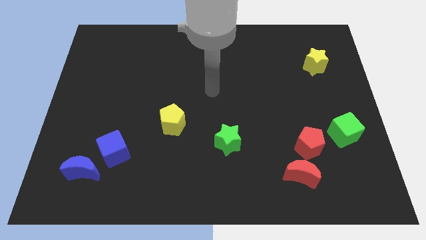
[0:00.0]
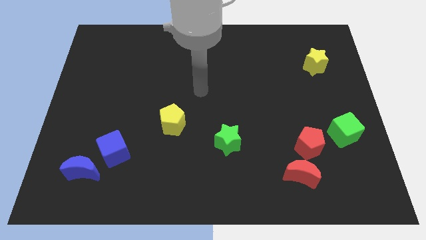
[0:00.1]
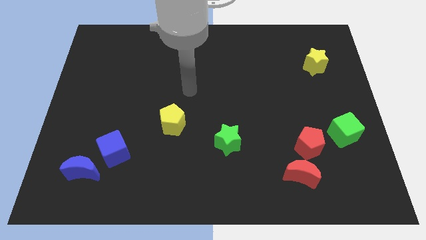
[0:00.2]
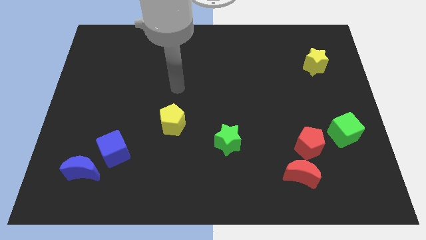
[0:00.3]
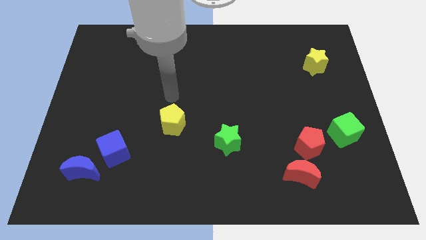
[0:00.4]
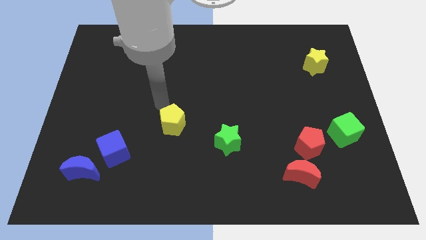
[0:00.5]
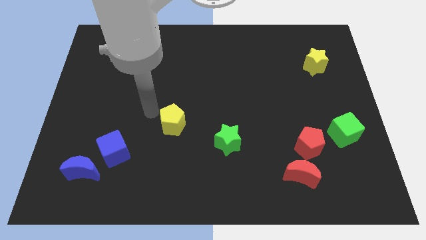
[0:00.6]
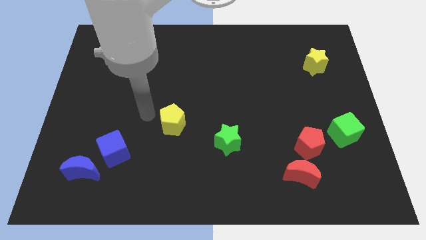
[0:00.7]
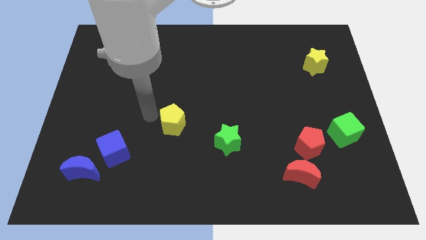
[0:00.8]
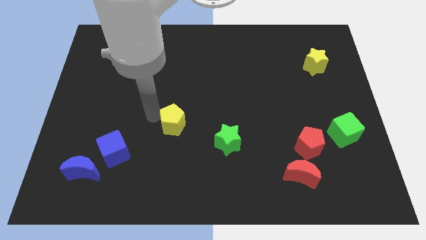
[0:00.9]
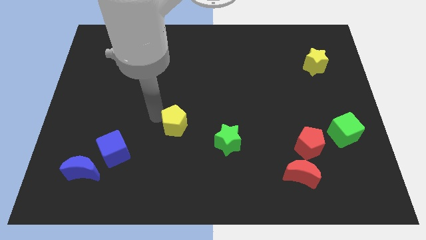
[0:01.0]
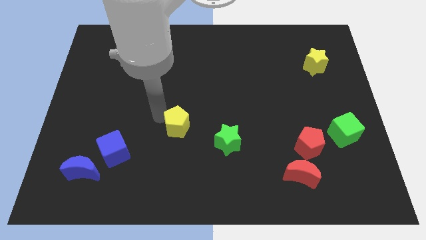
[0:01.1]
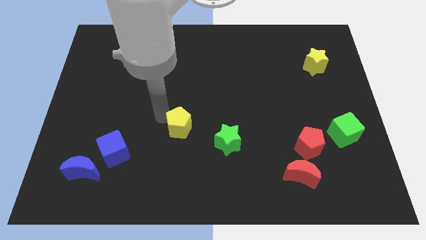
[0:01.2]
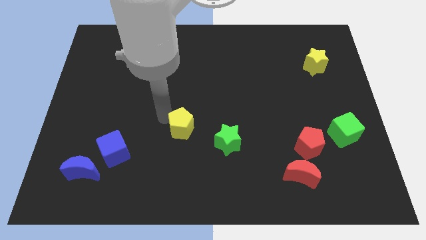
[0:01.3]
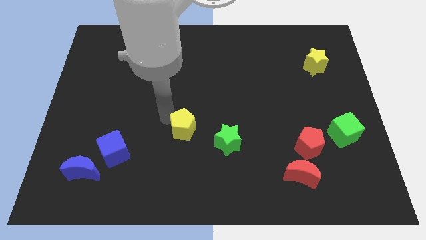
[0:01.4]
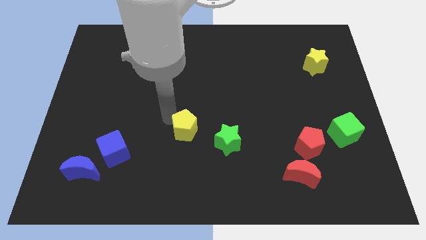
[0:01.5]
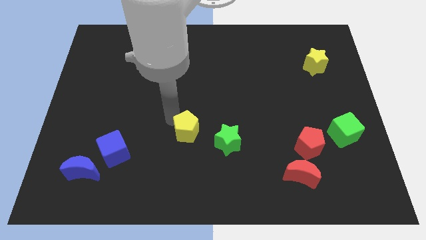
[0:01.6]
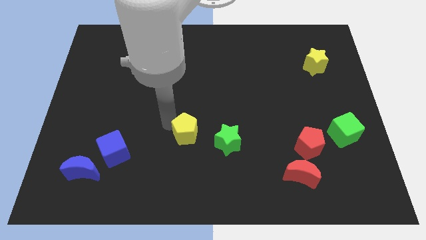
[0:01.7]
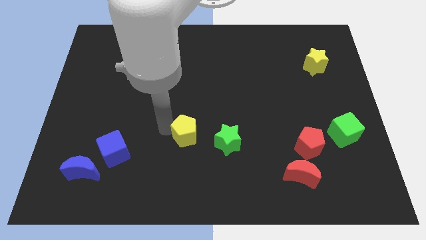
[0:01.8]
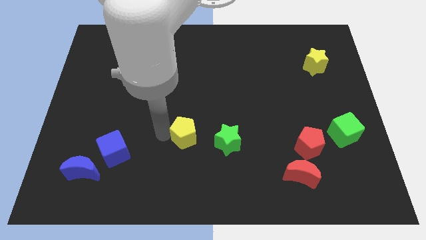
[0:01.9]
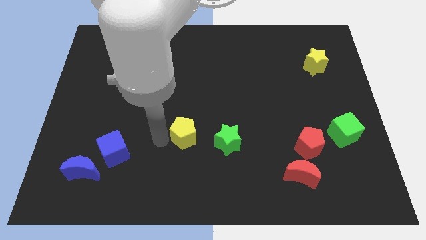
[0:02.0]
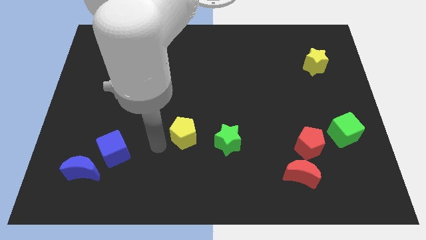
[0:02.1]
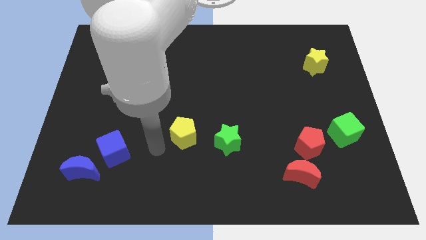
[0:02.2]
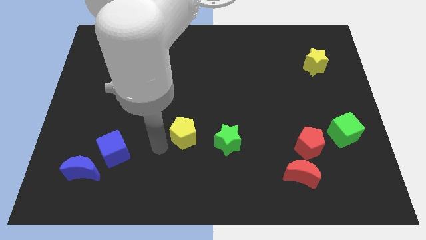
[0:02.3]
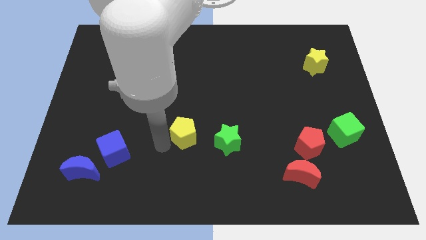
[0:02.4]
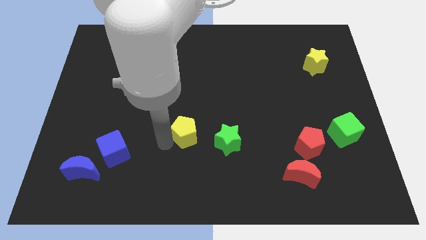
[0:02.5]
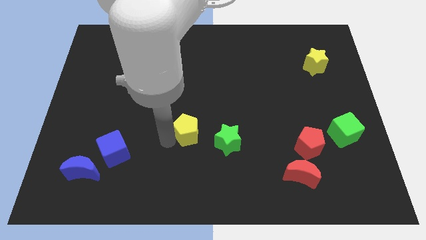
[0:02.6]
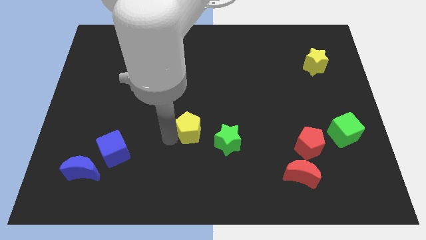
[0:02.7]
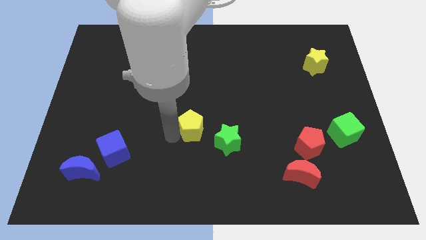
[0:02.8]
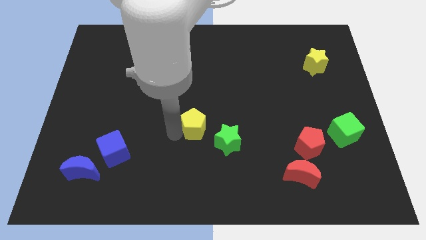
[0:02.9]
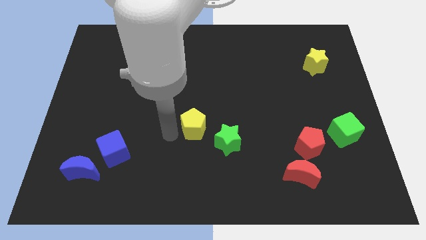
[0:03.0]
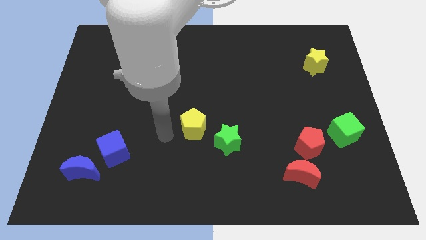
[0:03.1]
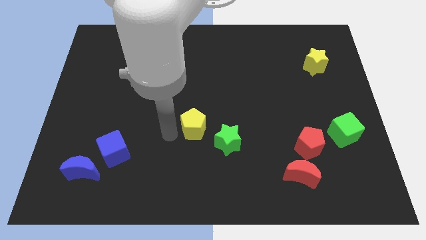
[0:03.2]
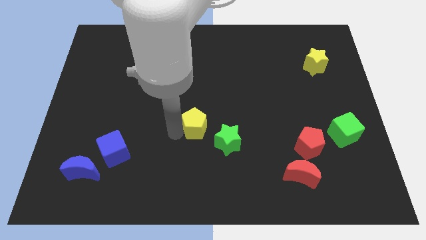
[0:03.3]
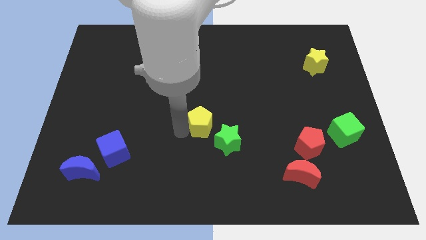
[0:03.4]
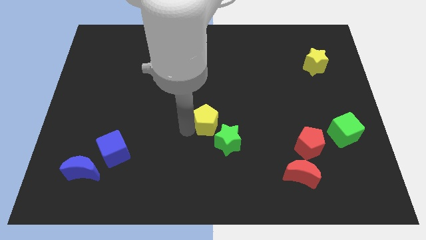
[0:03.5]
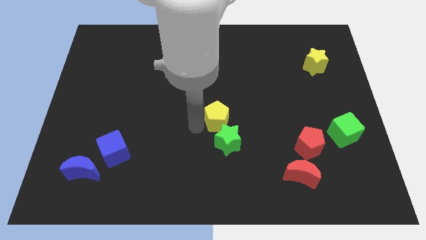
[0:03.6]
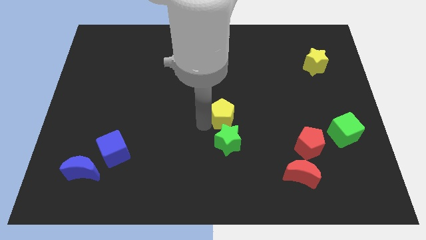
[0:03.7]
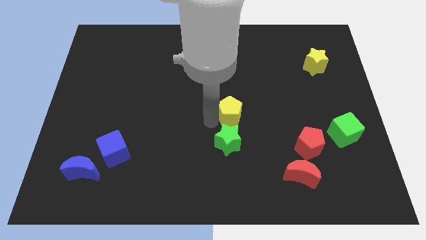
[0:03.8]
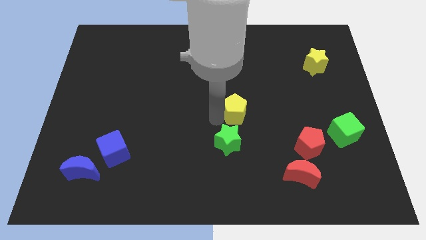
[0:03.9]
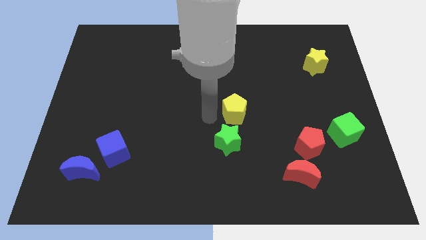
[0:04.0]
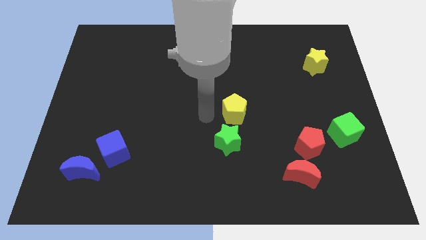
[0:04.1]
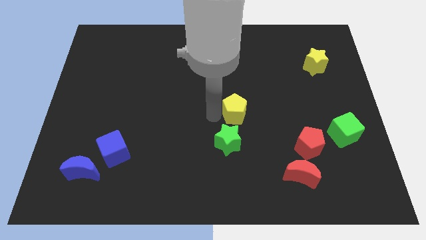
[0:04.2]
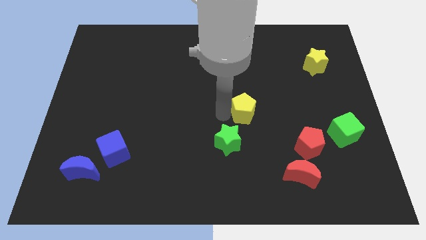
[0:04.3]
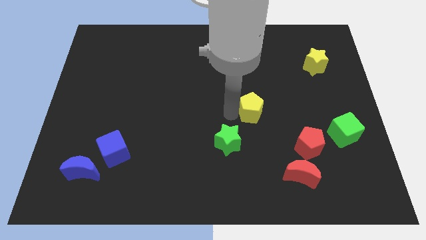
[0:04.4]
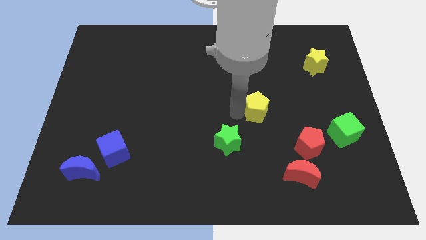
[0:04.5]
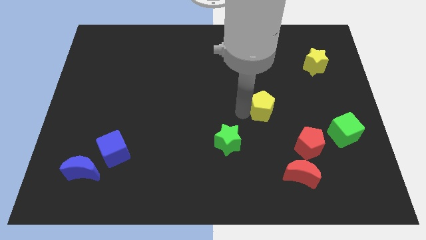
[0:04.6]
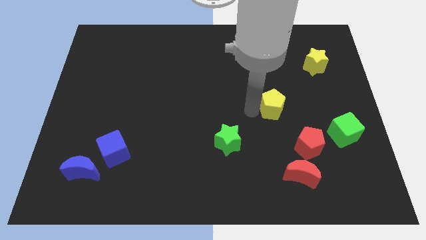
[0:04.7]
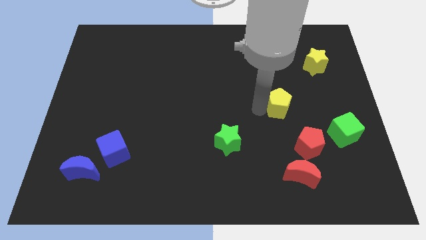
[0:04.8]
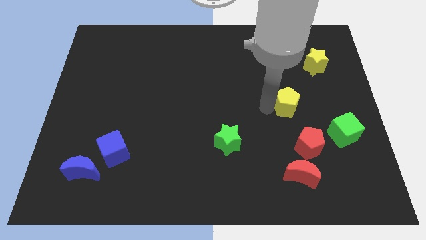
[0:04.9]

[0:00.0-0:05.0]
slide the yellow pentagon to the top side of the red pentagon

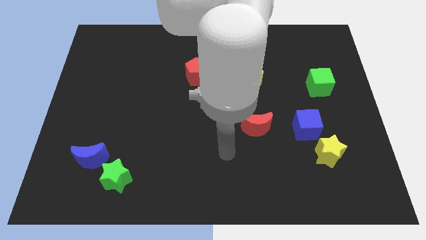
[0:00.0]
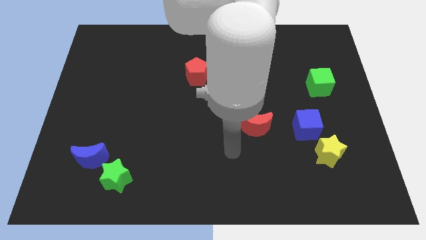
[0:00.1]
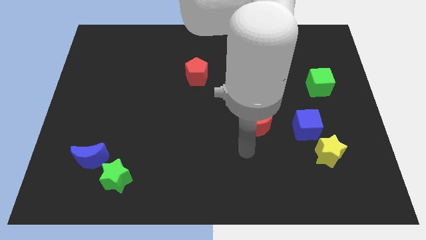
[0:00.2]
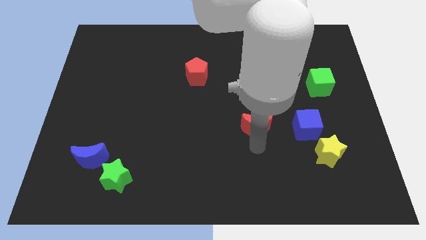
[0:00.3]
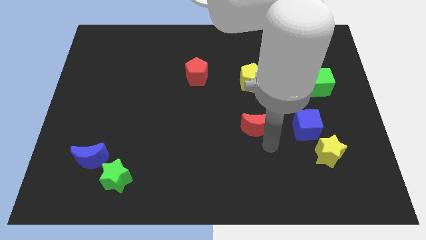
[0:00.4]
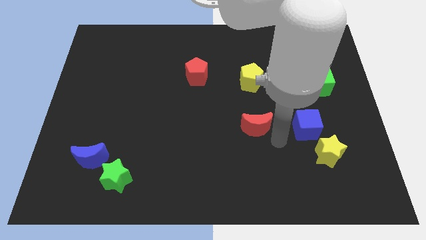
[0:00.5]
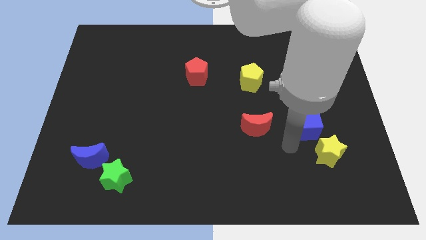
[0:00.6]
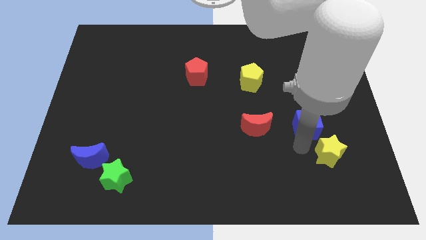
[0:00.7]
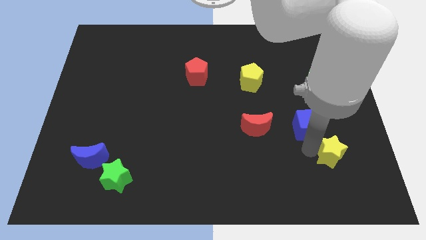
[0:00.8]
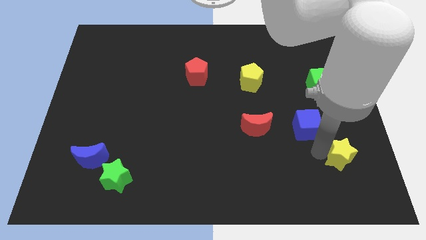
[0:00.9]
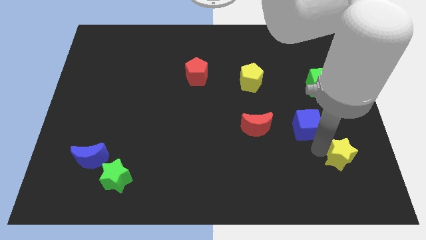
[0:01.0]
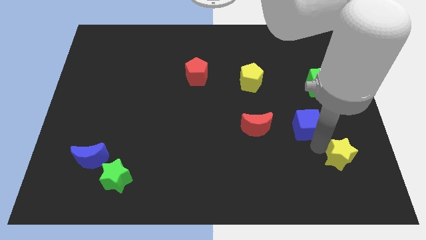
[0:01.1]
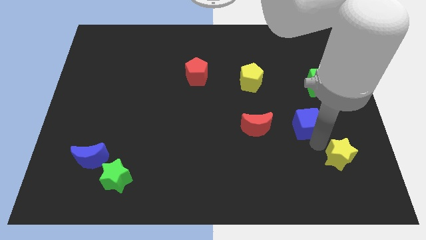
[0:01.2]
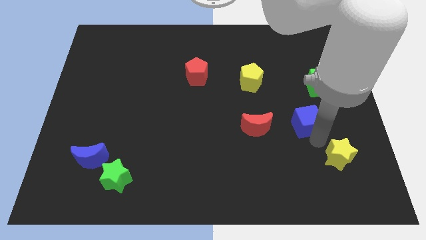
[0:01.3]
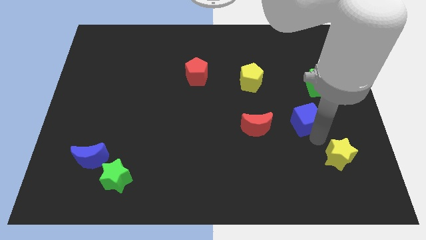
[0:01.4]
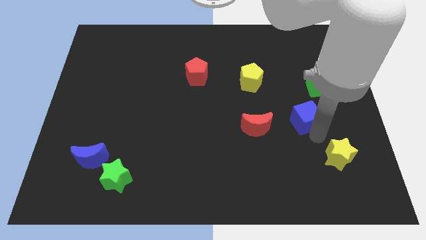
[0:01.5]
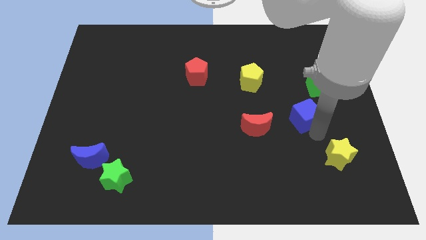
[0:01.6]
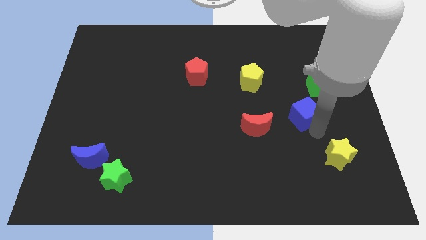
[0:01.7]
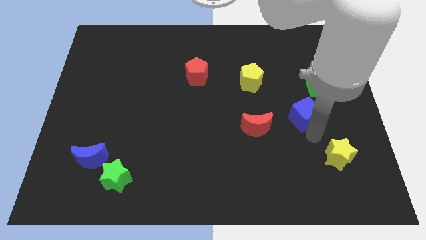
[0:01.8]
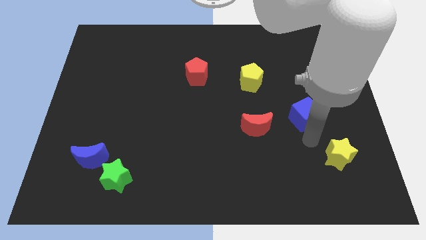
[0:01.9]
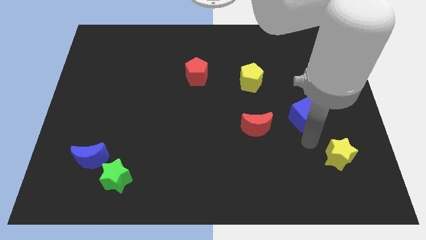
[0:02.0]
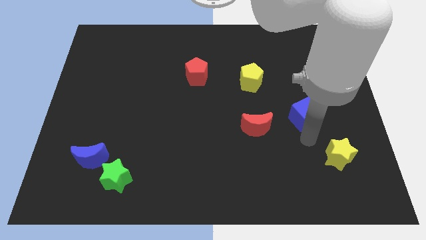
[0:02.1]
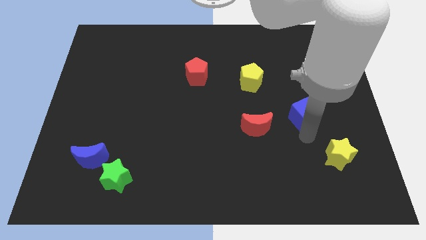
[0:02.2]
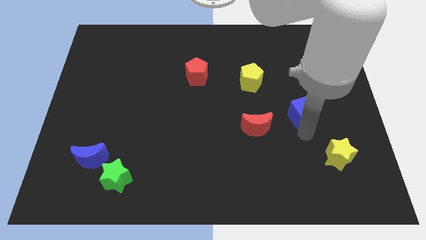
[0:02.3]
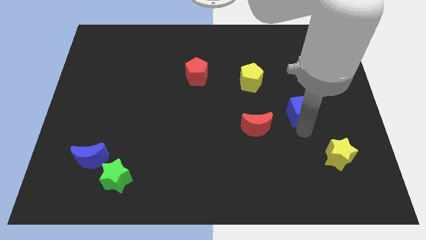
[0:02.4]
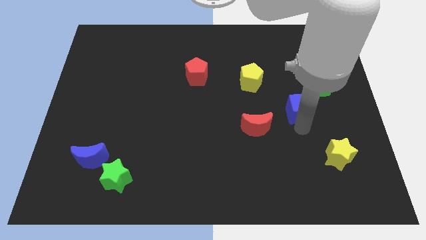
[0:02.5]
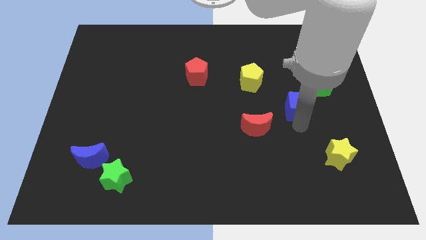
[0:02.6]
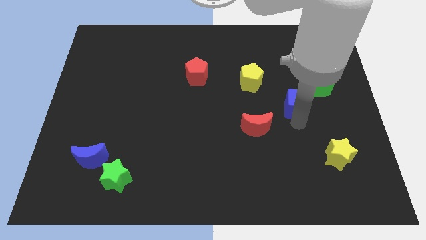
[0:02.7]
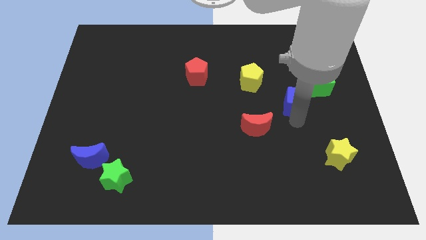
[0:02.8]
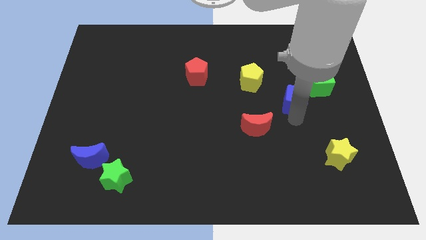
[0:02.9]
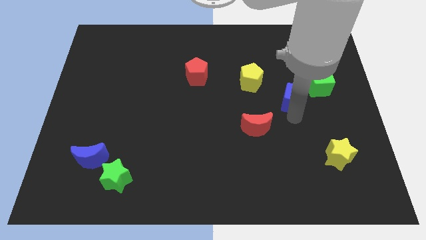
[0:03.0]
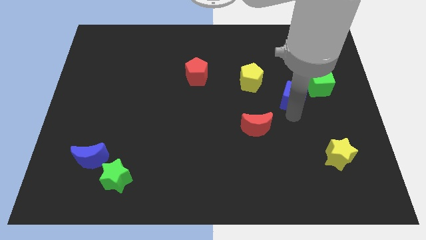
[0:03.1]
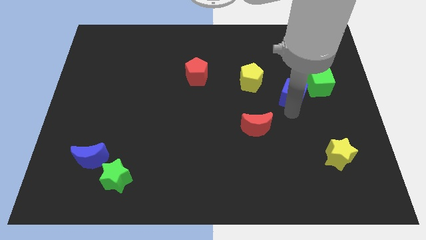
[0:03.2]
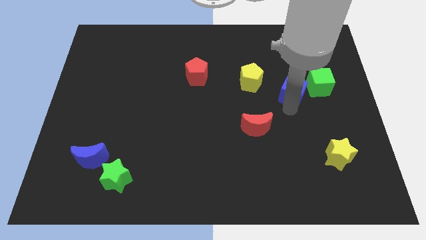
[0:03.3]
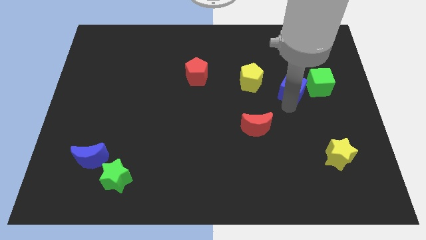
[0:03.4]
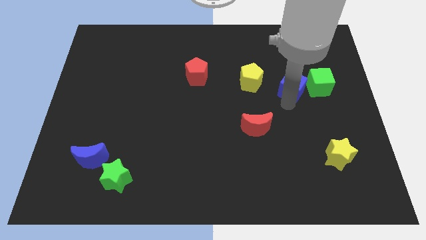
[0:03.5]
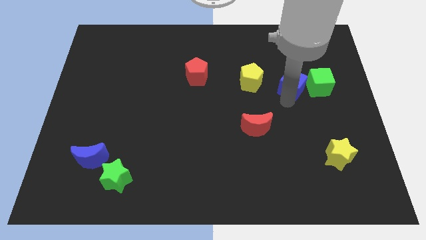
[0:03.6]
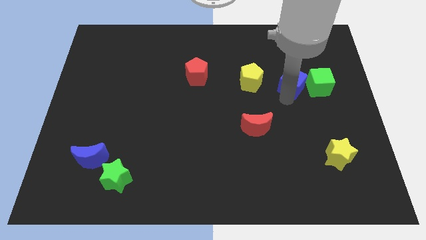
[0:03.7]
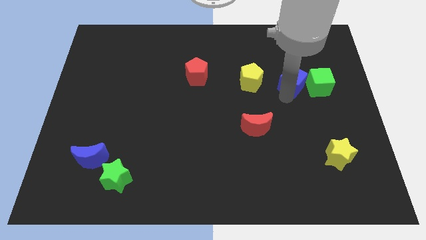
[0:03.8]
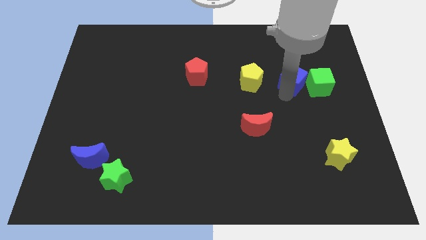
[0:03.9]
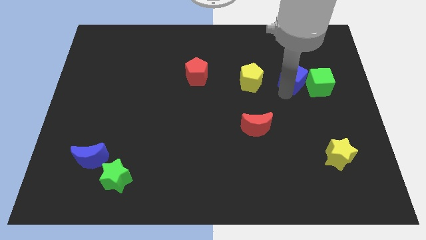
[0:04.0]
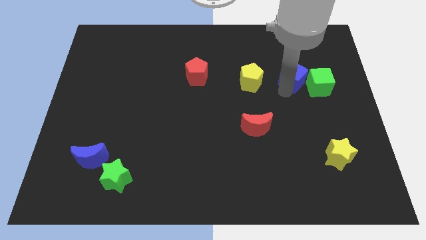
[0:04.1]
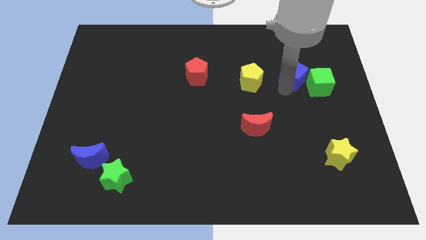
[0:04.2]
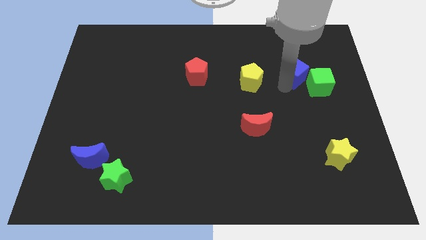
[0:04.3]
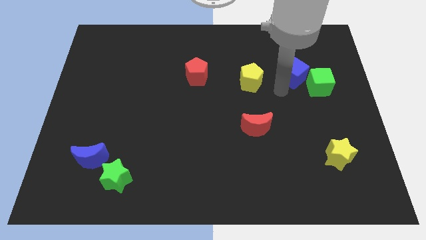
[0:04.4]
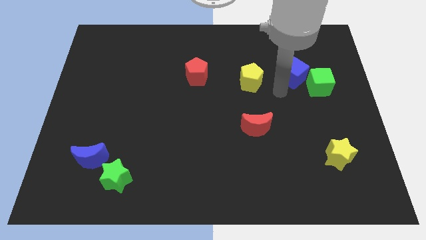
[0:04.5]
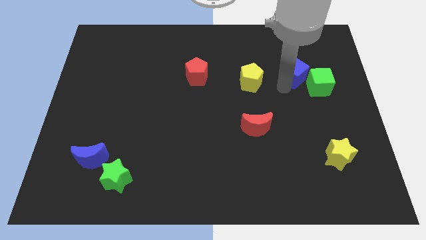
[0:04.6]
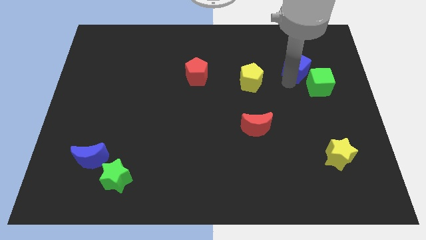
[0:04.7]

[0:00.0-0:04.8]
slide the blue cube to the top of the green cube
